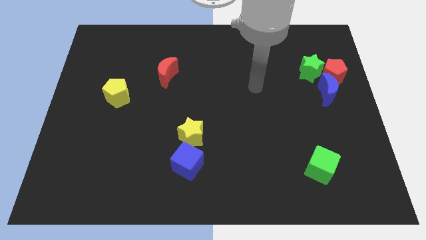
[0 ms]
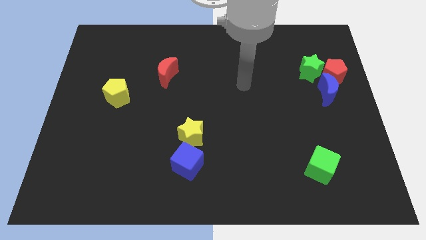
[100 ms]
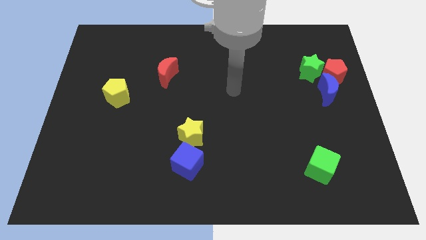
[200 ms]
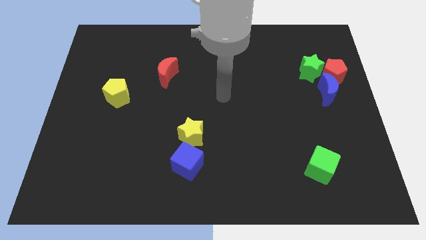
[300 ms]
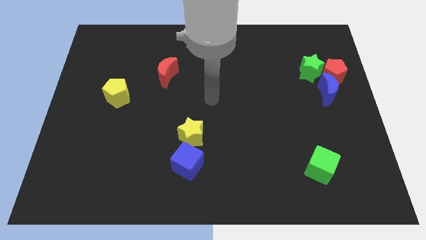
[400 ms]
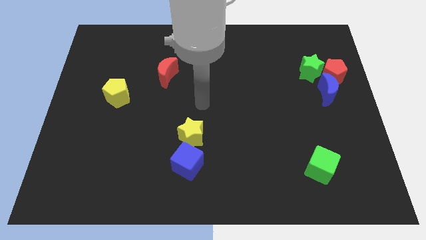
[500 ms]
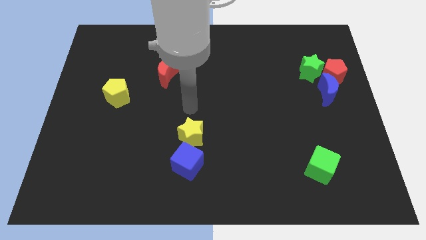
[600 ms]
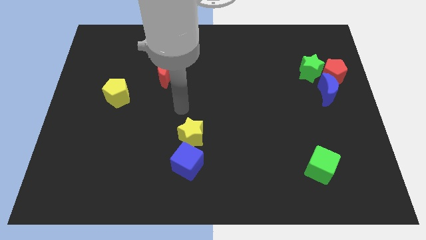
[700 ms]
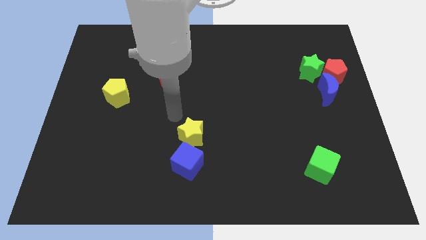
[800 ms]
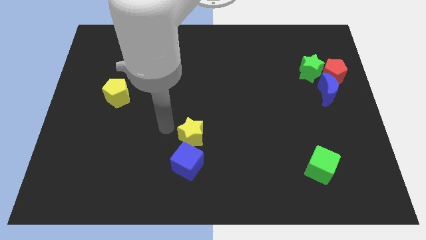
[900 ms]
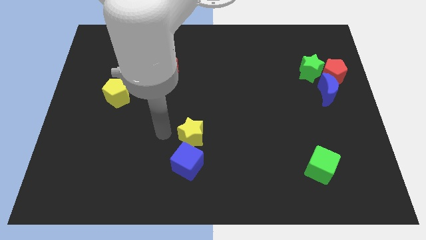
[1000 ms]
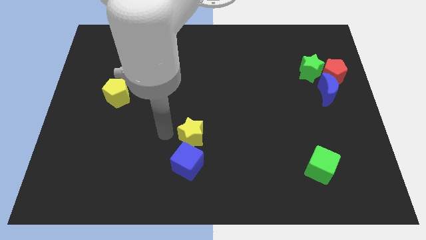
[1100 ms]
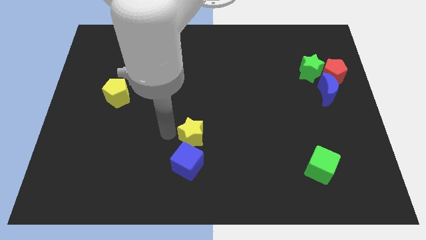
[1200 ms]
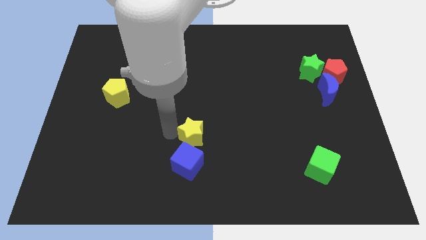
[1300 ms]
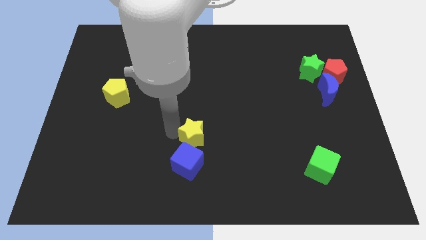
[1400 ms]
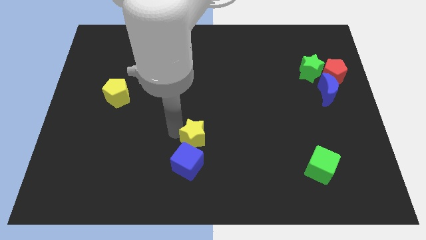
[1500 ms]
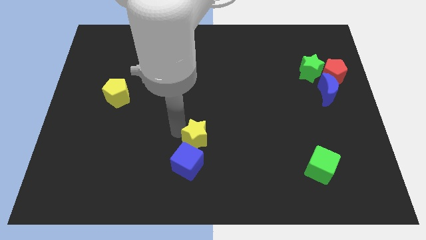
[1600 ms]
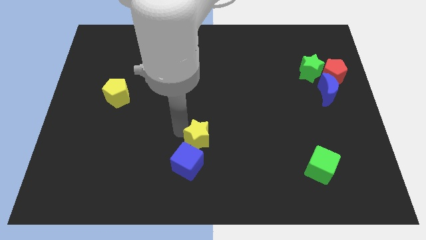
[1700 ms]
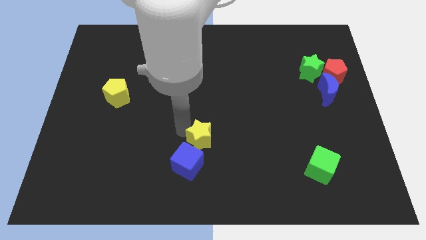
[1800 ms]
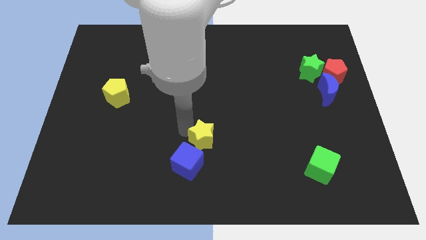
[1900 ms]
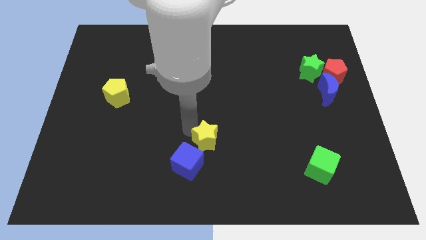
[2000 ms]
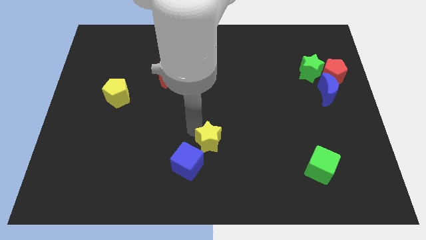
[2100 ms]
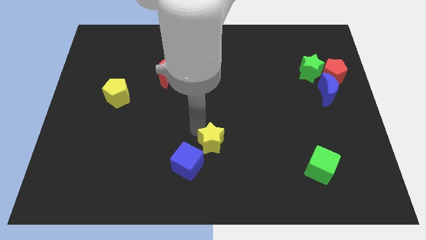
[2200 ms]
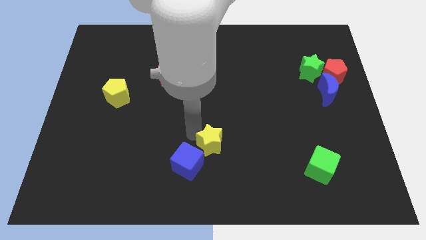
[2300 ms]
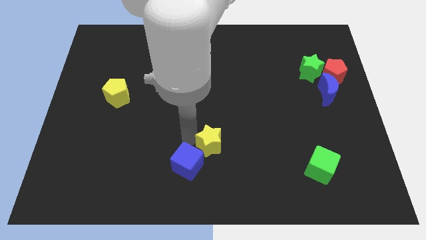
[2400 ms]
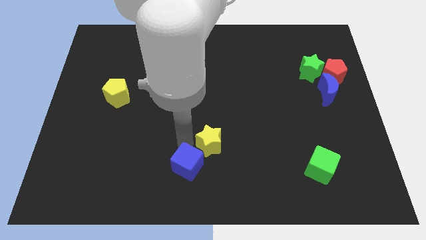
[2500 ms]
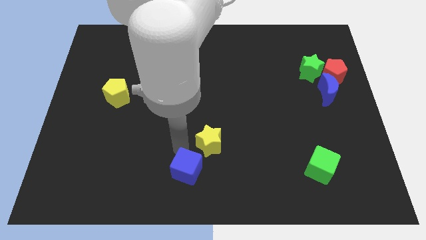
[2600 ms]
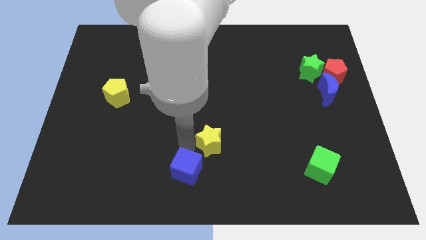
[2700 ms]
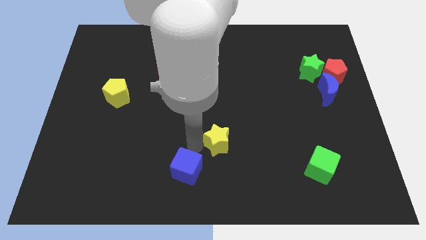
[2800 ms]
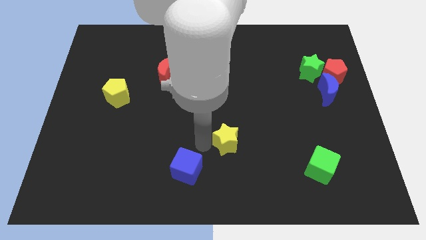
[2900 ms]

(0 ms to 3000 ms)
slide the yellow star to the right slightly

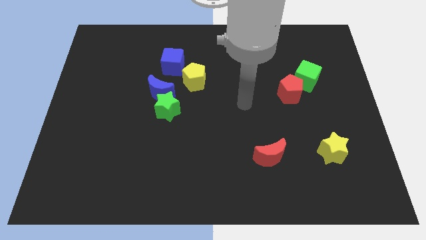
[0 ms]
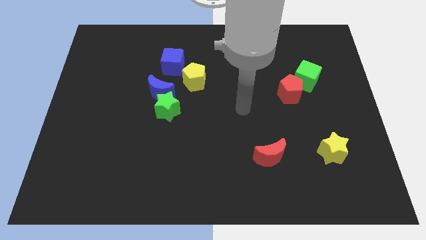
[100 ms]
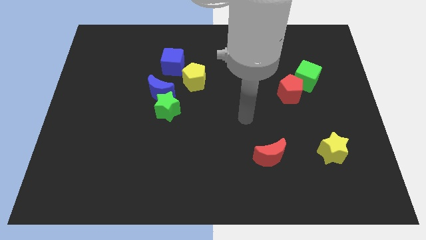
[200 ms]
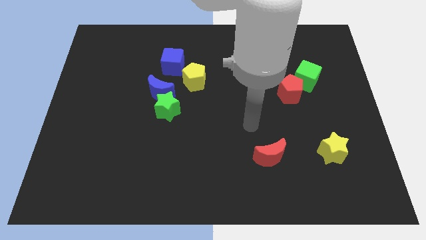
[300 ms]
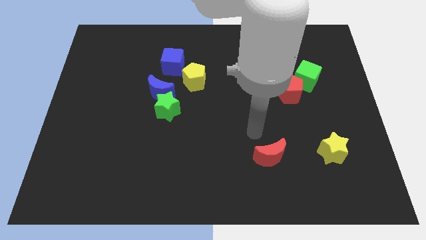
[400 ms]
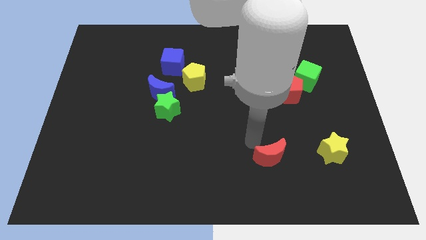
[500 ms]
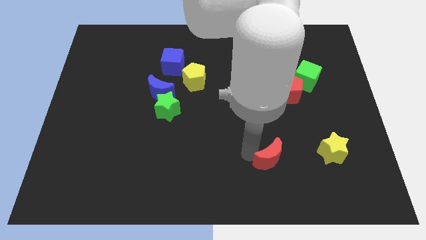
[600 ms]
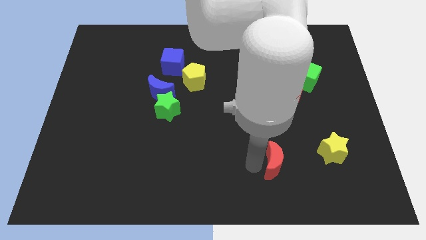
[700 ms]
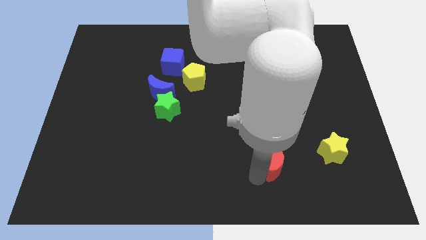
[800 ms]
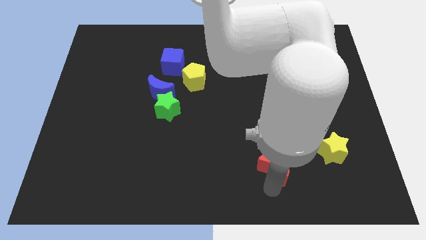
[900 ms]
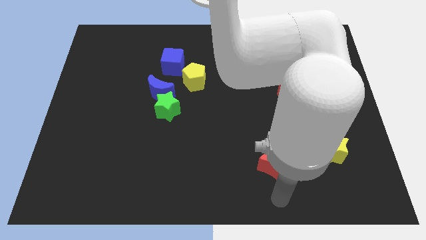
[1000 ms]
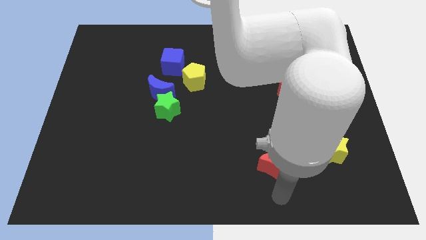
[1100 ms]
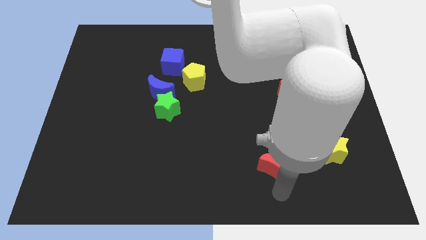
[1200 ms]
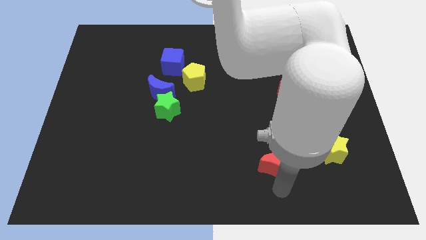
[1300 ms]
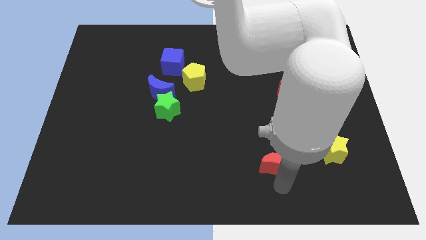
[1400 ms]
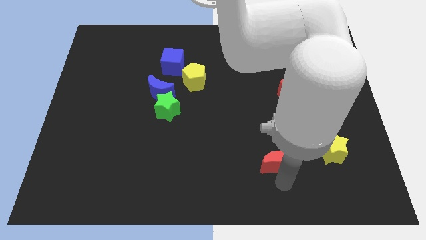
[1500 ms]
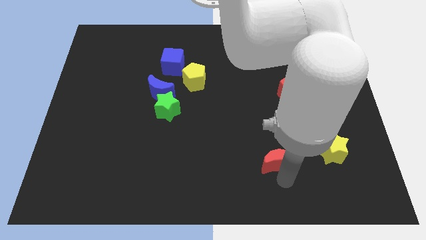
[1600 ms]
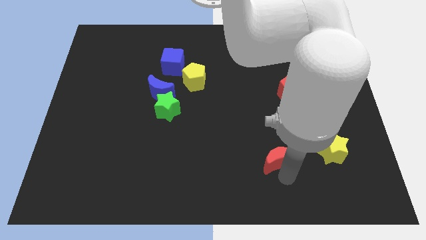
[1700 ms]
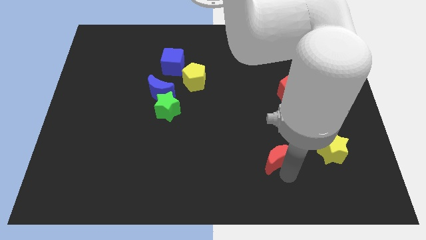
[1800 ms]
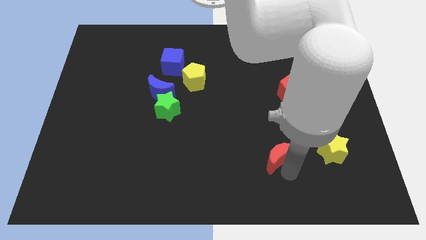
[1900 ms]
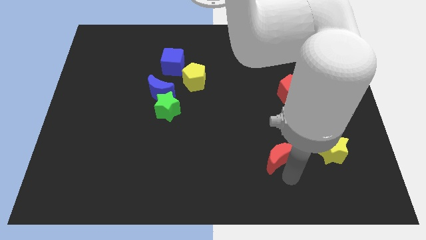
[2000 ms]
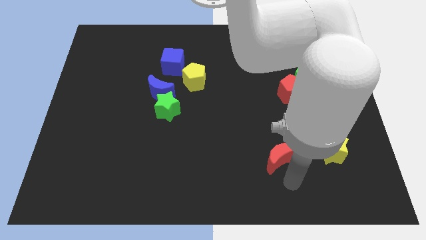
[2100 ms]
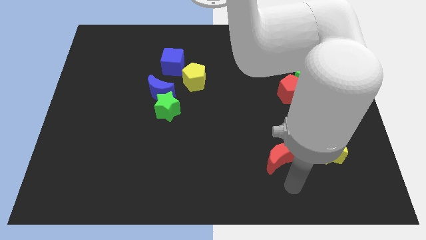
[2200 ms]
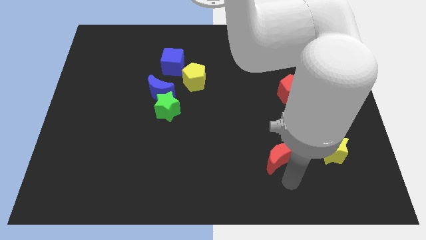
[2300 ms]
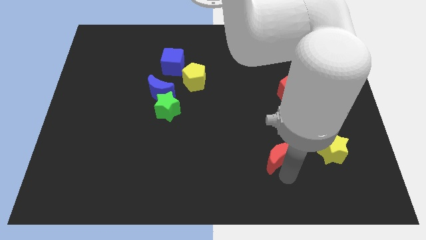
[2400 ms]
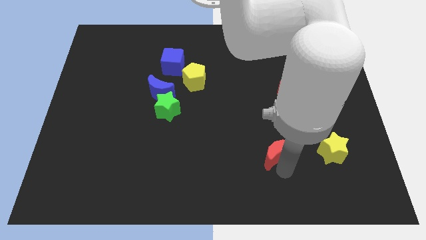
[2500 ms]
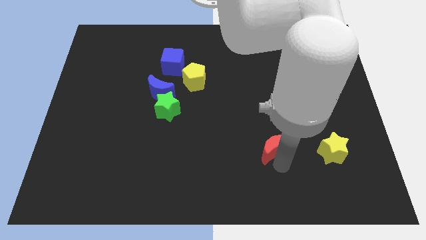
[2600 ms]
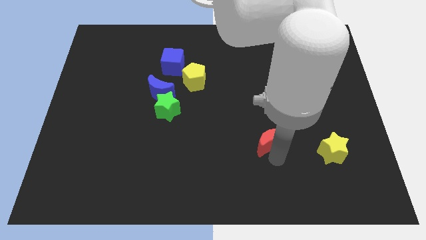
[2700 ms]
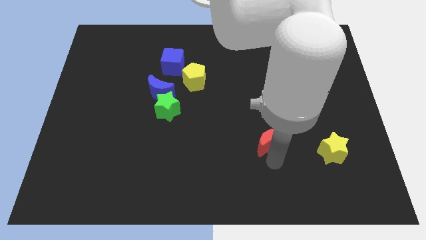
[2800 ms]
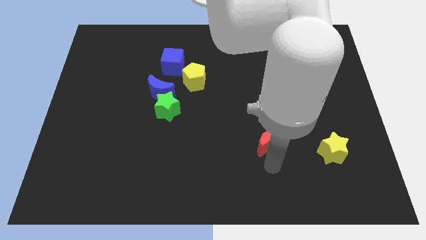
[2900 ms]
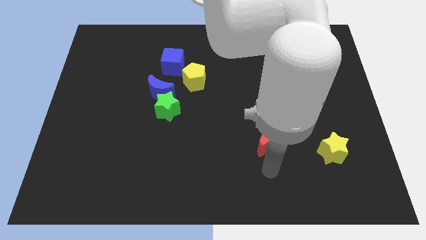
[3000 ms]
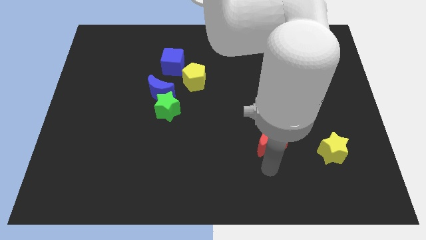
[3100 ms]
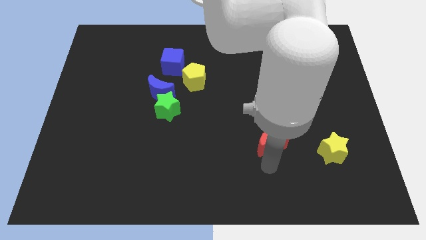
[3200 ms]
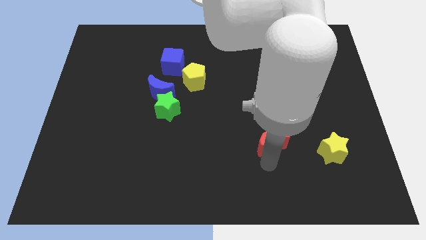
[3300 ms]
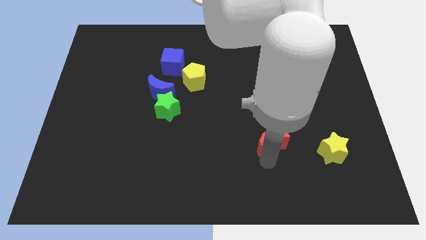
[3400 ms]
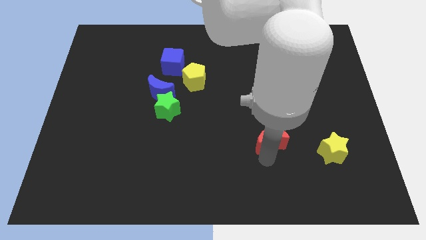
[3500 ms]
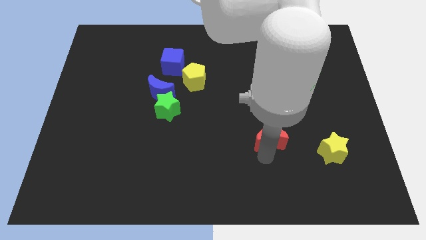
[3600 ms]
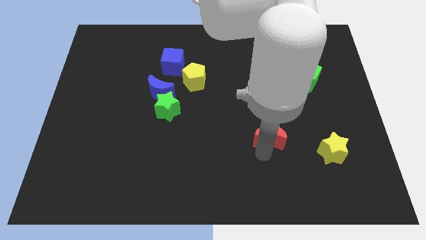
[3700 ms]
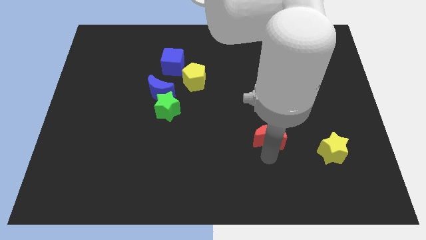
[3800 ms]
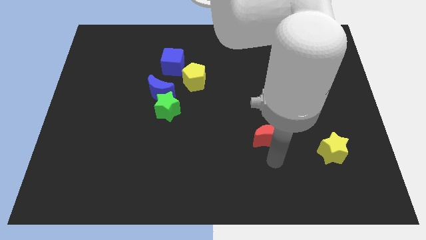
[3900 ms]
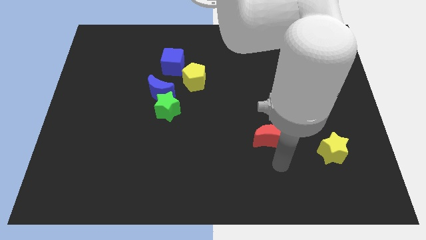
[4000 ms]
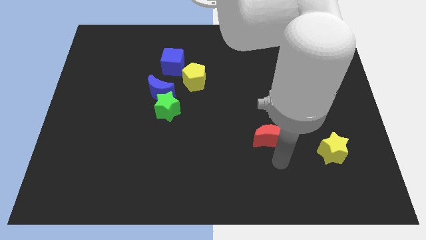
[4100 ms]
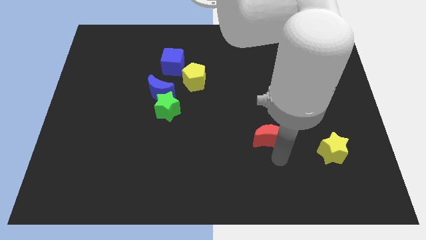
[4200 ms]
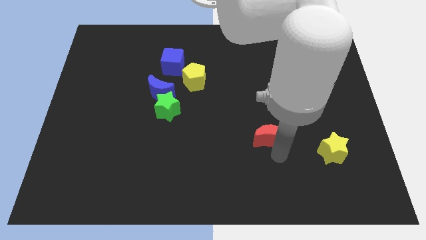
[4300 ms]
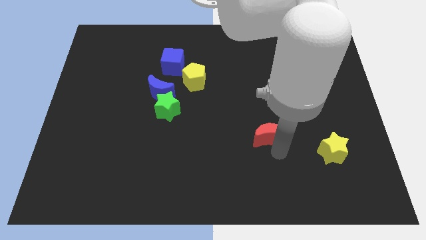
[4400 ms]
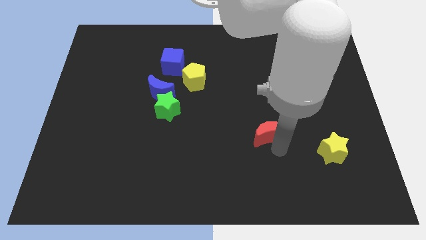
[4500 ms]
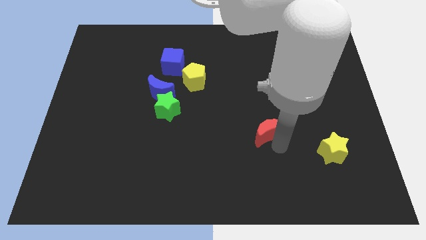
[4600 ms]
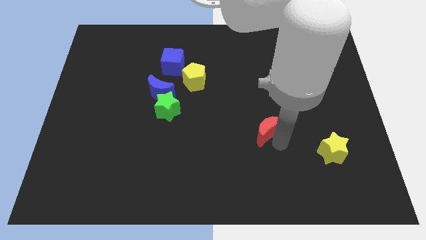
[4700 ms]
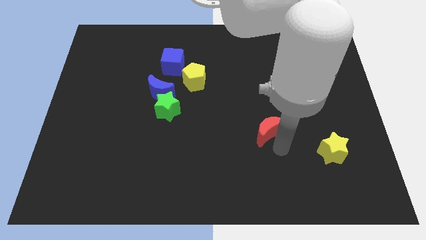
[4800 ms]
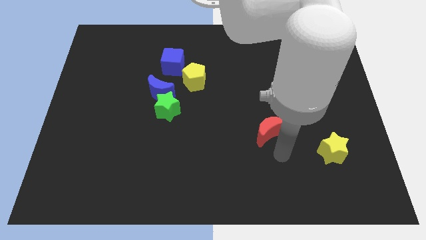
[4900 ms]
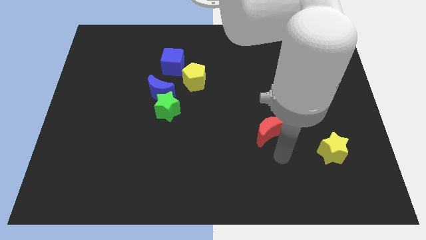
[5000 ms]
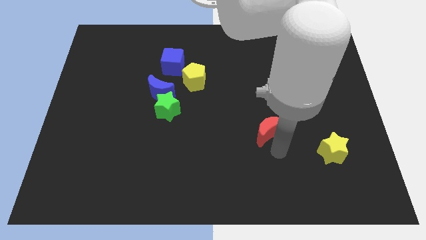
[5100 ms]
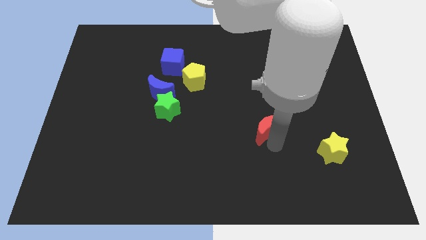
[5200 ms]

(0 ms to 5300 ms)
slide the red moon up somewhat

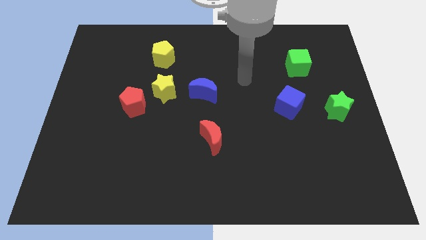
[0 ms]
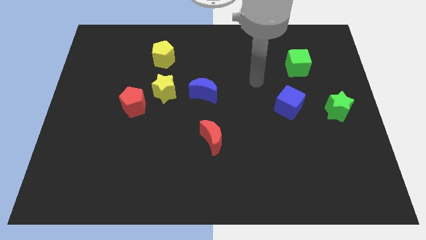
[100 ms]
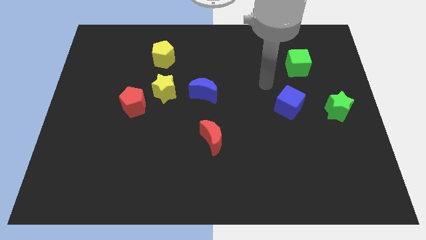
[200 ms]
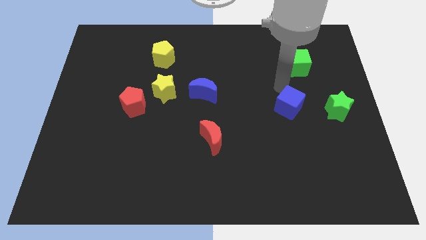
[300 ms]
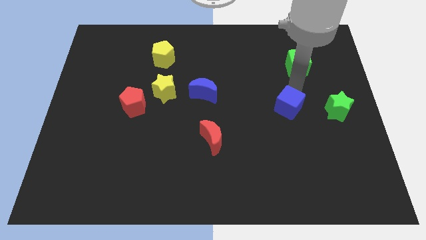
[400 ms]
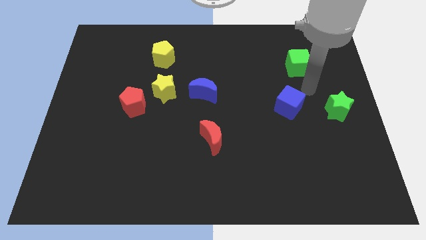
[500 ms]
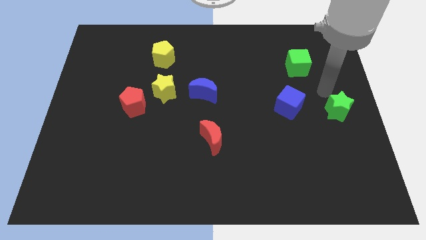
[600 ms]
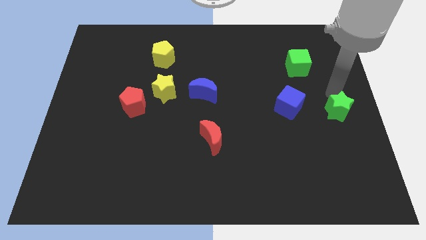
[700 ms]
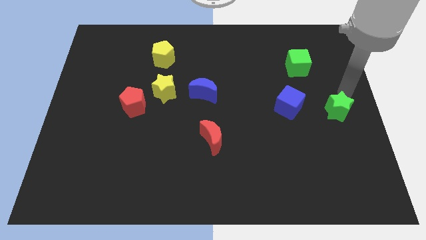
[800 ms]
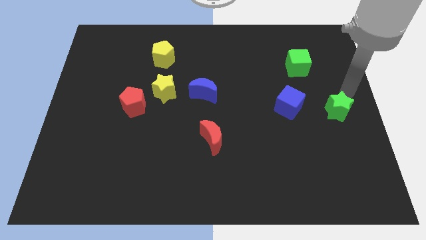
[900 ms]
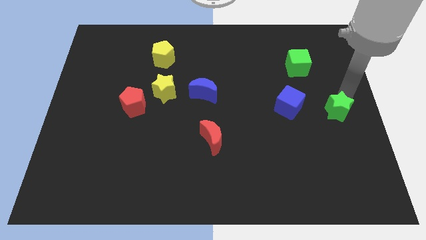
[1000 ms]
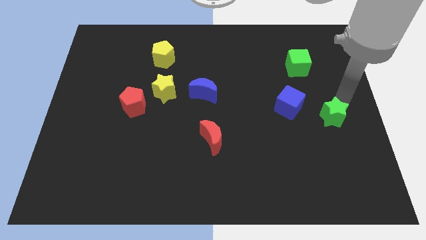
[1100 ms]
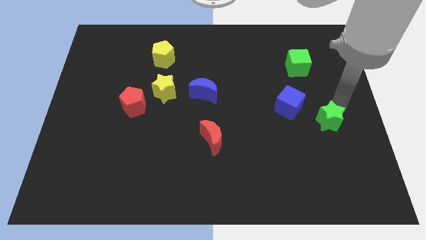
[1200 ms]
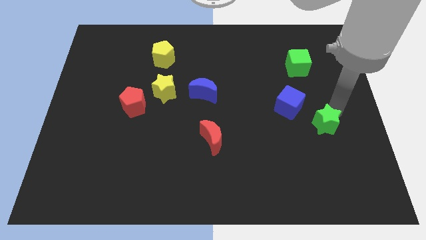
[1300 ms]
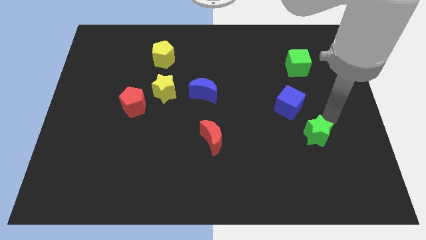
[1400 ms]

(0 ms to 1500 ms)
push the green star diagonally down and left a bit
